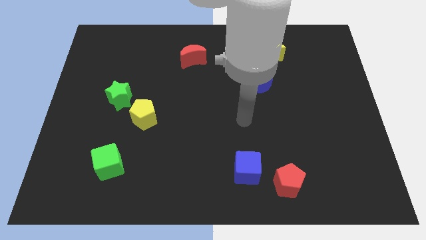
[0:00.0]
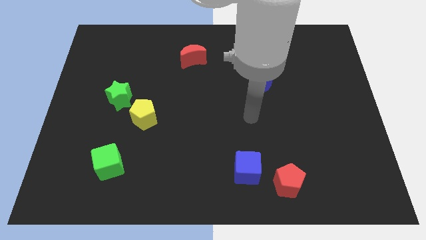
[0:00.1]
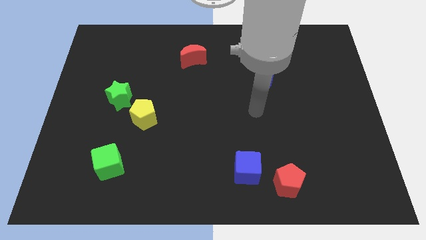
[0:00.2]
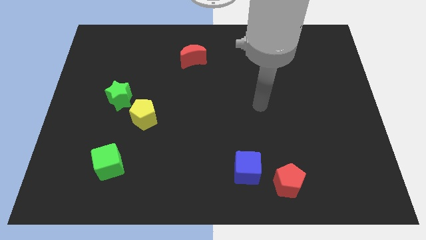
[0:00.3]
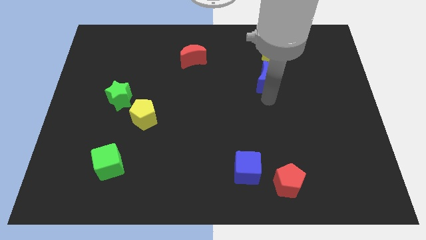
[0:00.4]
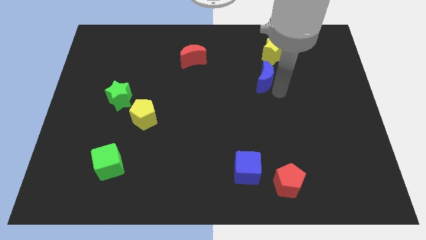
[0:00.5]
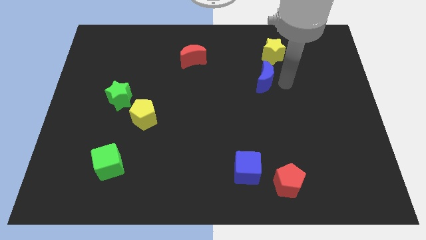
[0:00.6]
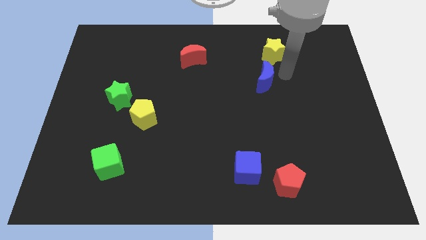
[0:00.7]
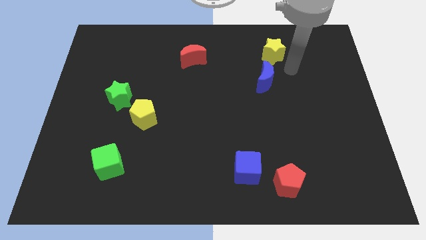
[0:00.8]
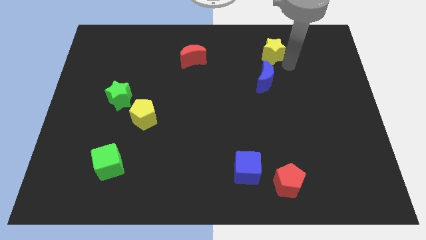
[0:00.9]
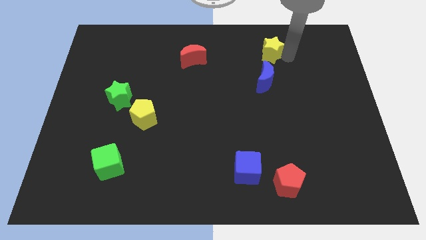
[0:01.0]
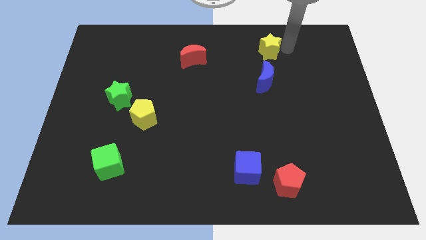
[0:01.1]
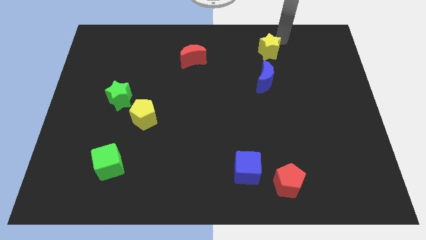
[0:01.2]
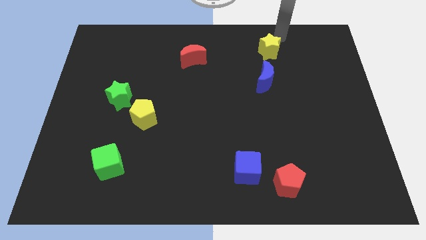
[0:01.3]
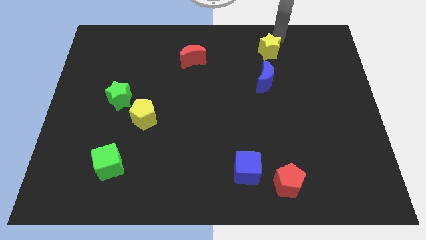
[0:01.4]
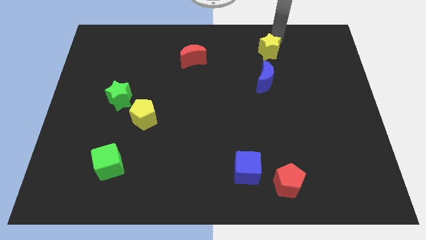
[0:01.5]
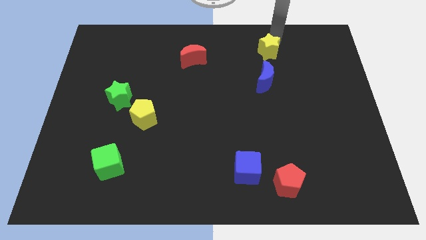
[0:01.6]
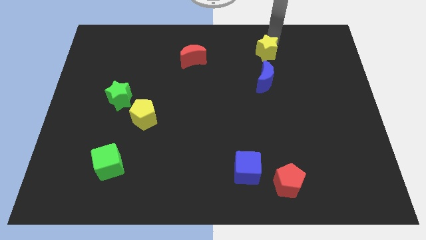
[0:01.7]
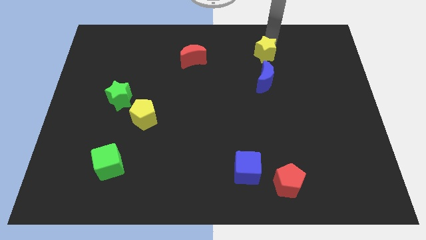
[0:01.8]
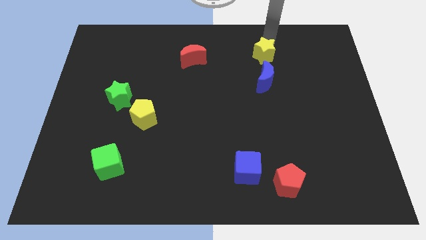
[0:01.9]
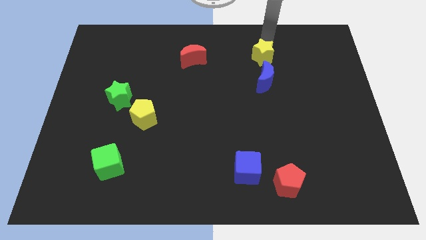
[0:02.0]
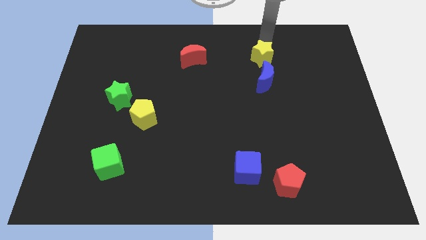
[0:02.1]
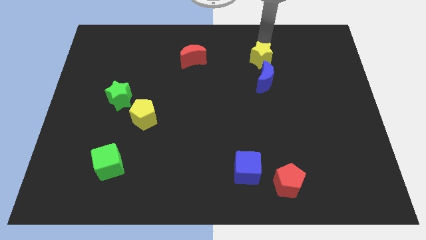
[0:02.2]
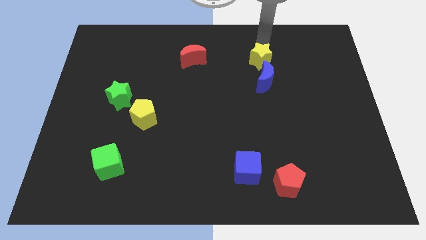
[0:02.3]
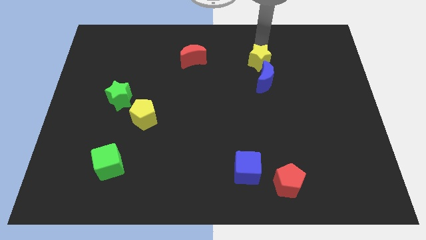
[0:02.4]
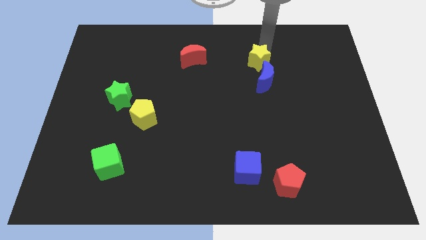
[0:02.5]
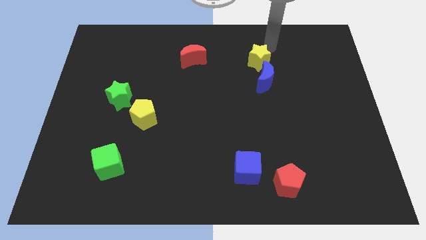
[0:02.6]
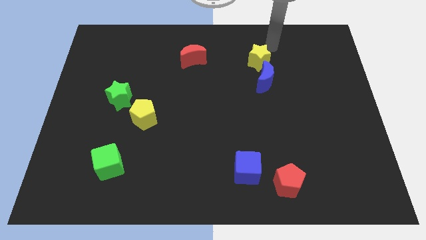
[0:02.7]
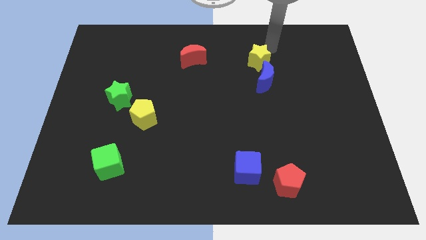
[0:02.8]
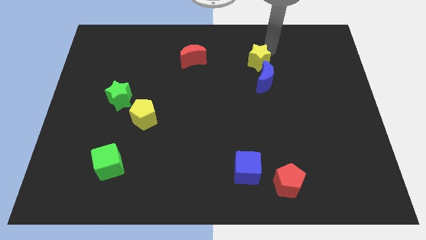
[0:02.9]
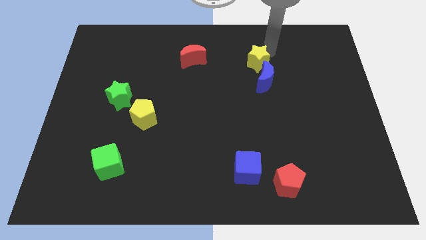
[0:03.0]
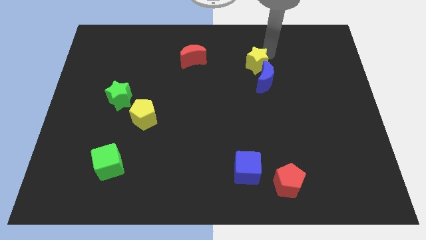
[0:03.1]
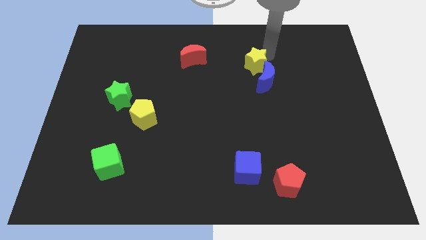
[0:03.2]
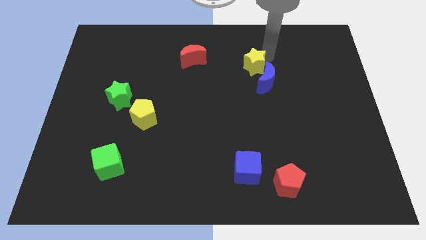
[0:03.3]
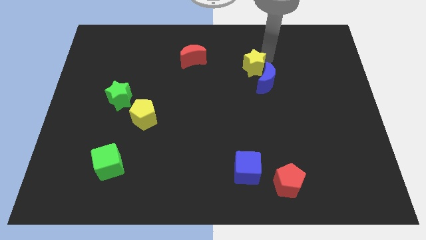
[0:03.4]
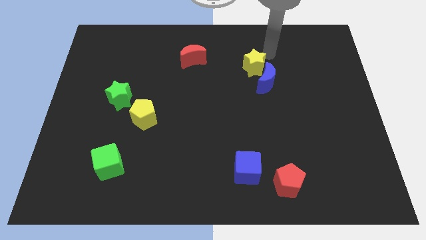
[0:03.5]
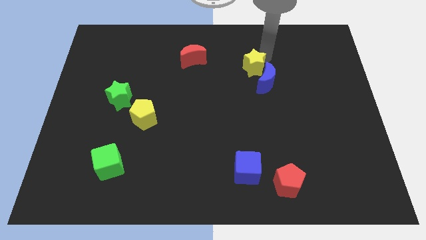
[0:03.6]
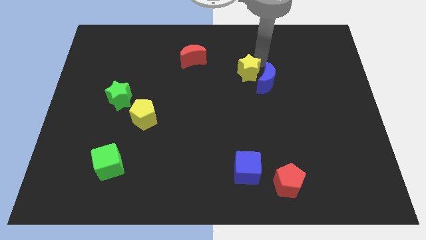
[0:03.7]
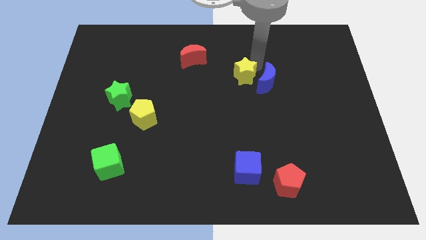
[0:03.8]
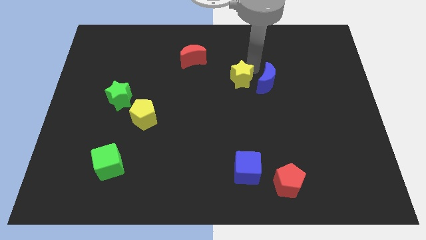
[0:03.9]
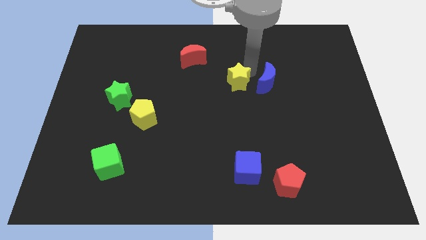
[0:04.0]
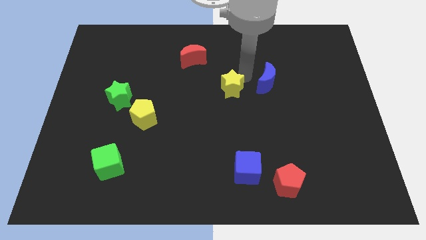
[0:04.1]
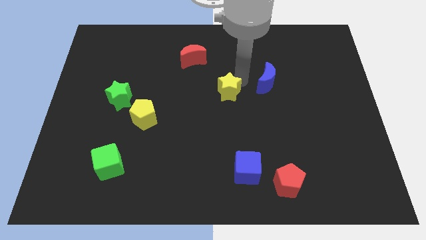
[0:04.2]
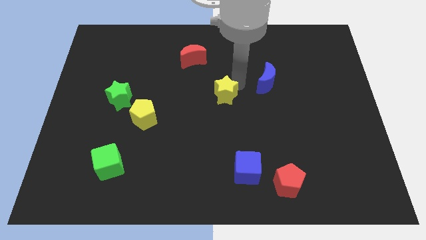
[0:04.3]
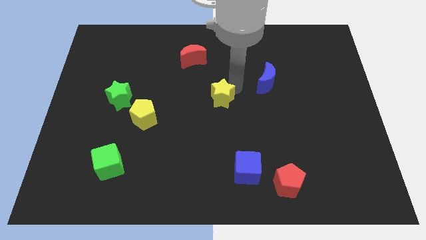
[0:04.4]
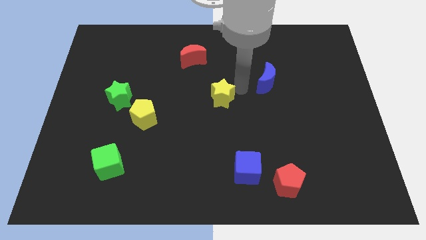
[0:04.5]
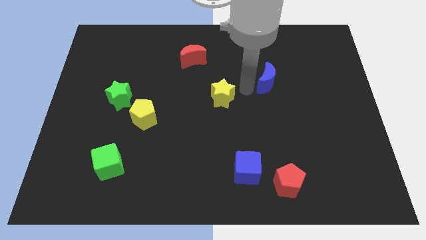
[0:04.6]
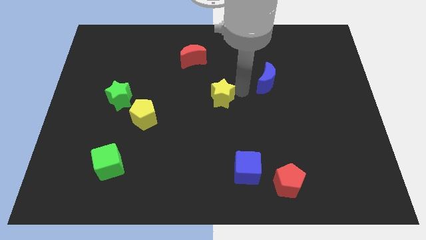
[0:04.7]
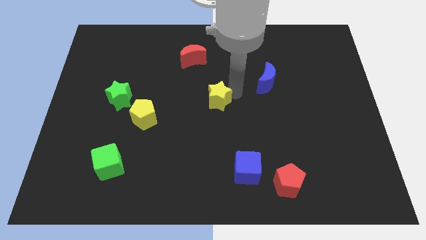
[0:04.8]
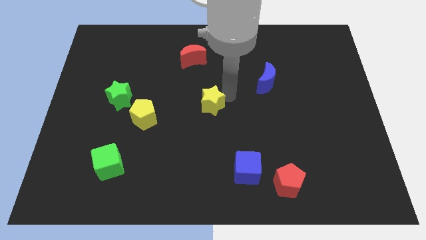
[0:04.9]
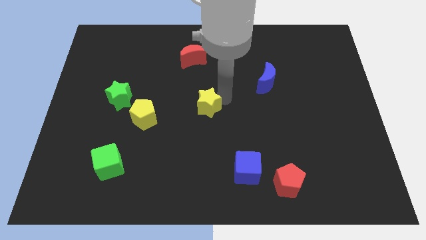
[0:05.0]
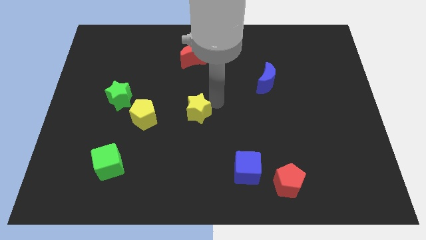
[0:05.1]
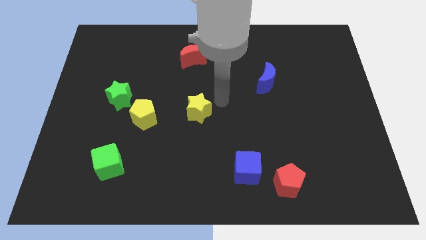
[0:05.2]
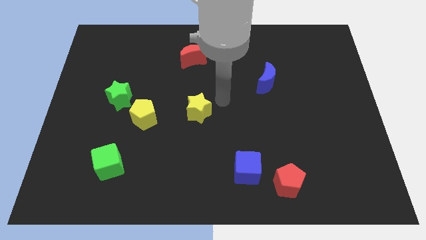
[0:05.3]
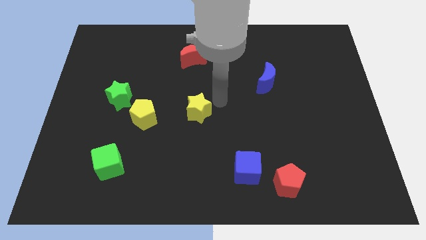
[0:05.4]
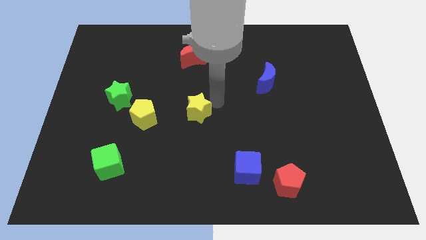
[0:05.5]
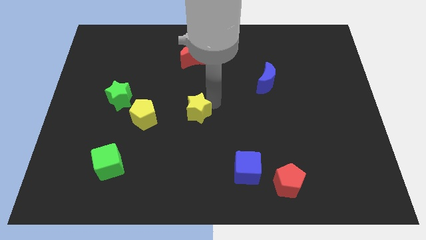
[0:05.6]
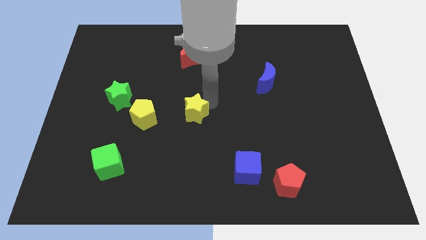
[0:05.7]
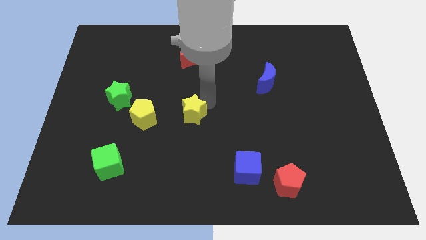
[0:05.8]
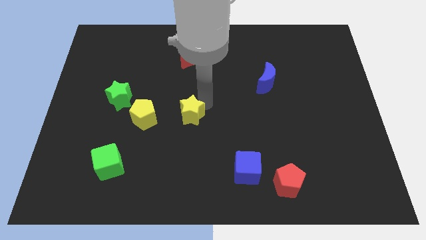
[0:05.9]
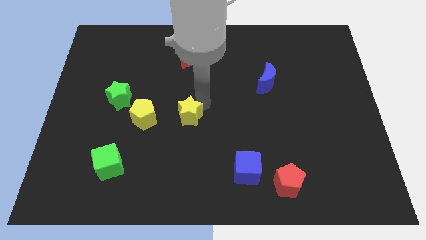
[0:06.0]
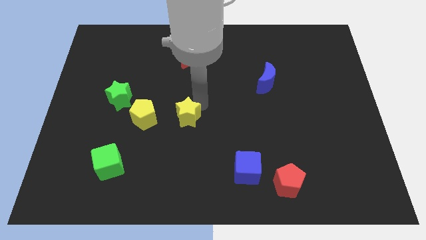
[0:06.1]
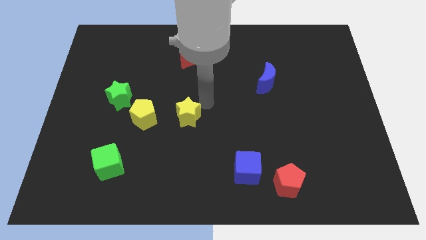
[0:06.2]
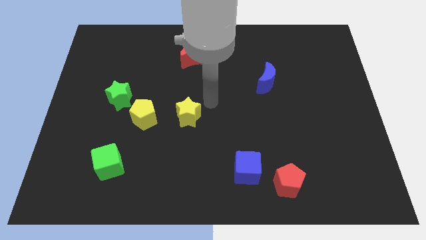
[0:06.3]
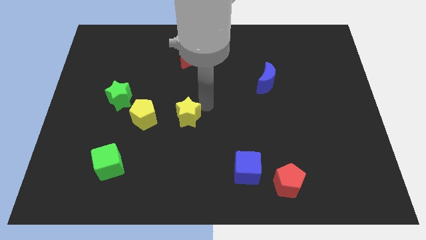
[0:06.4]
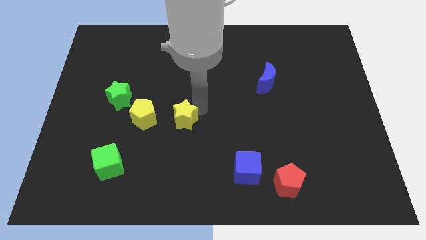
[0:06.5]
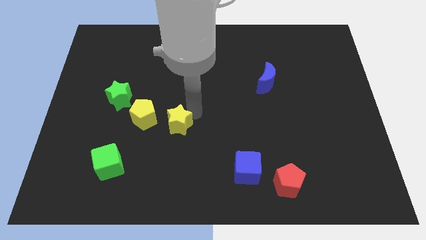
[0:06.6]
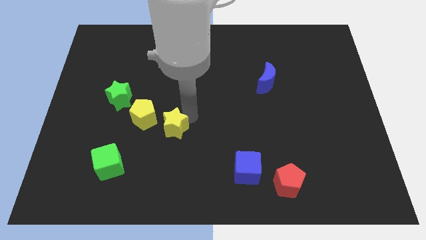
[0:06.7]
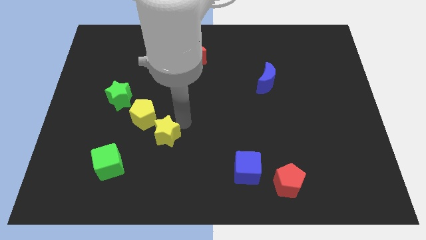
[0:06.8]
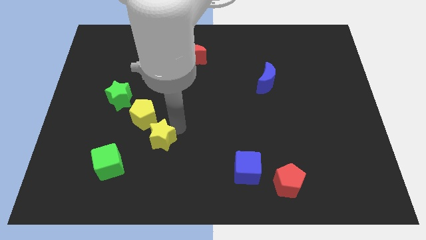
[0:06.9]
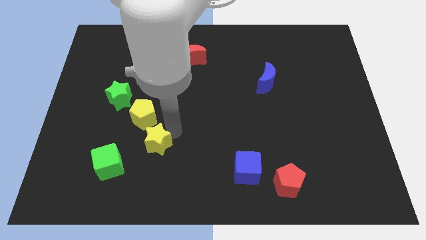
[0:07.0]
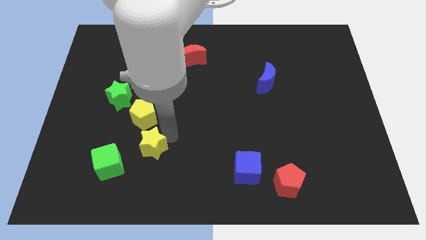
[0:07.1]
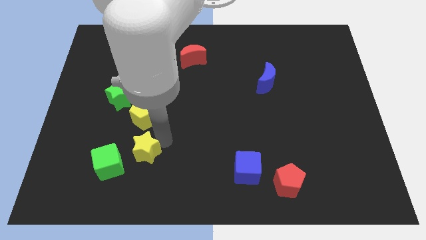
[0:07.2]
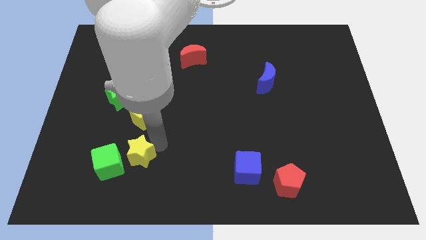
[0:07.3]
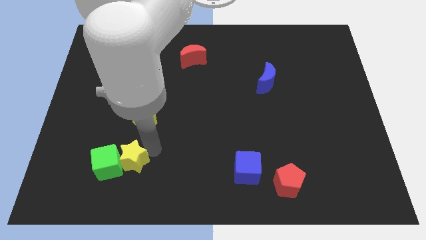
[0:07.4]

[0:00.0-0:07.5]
slide the yellow star close to the green cube
